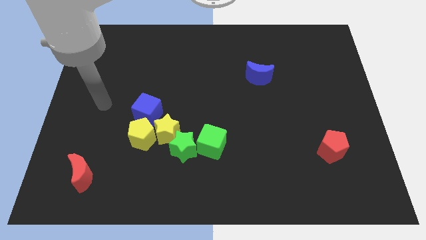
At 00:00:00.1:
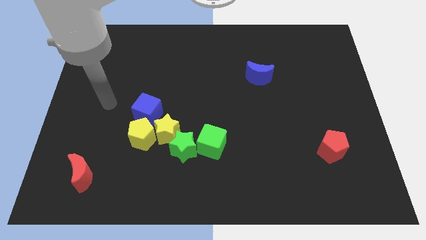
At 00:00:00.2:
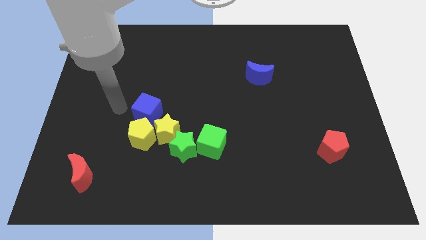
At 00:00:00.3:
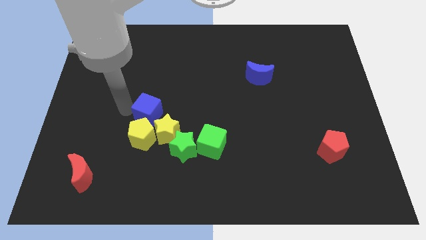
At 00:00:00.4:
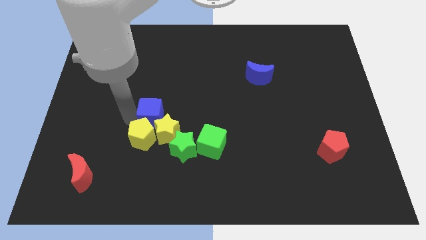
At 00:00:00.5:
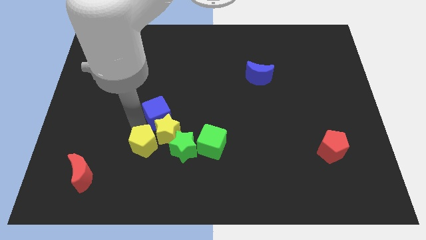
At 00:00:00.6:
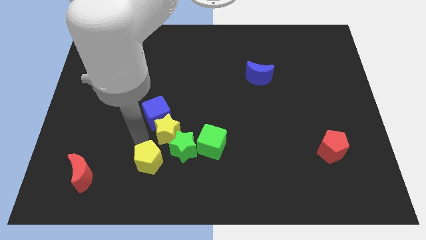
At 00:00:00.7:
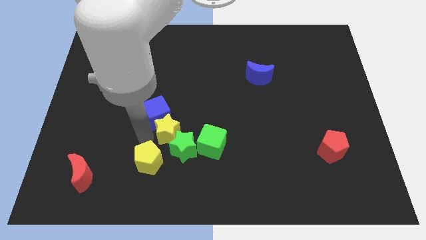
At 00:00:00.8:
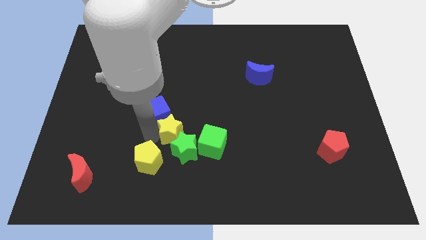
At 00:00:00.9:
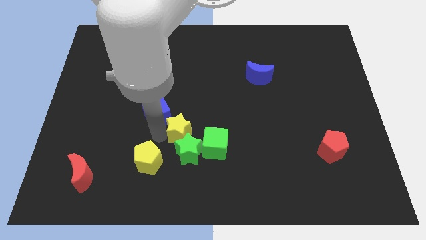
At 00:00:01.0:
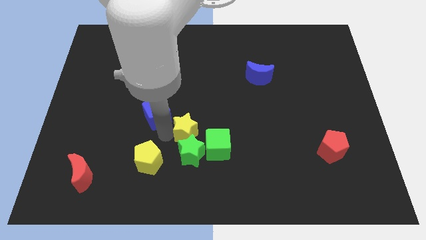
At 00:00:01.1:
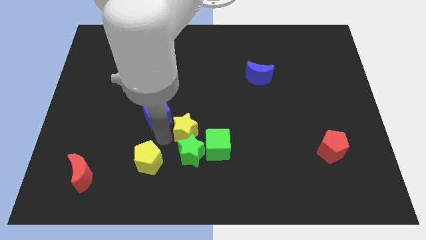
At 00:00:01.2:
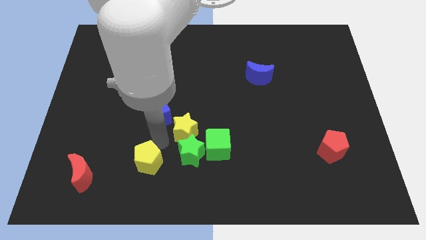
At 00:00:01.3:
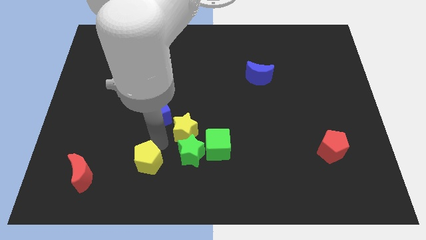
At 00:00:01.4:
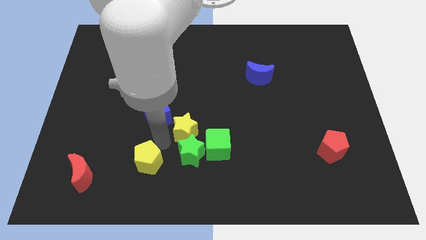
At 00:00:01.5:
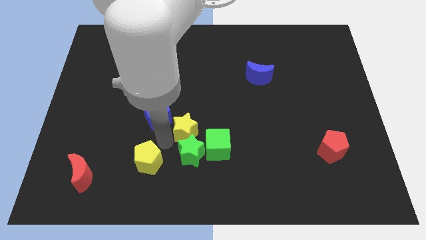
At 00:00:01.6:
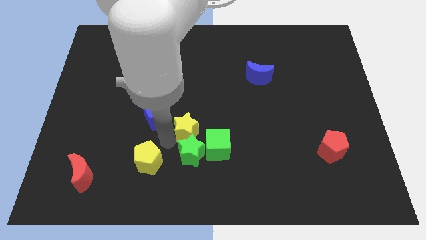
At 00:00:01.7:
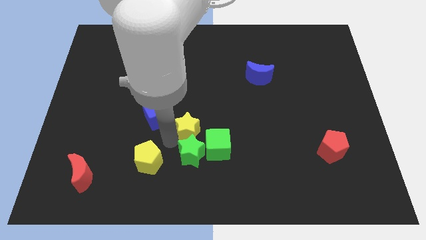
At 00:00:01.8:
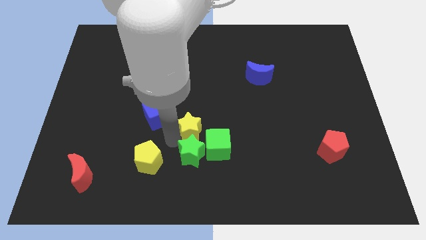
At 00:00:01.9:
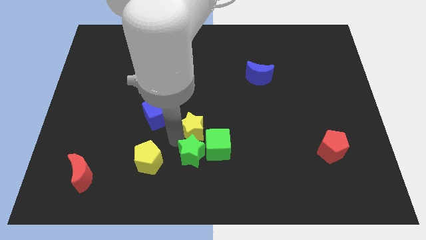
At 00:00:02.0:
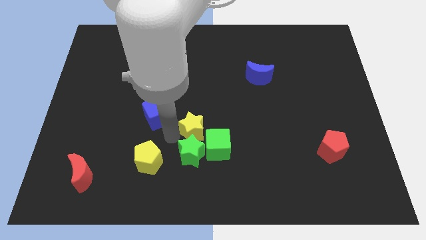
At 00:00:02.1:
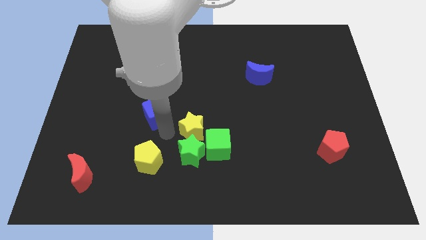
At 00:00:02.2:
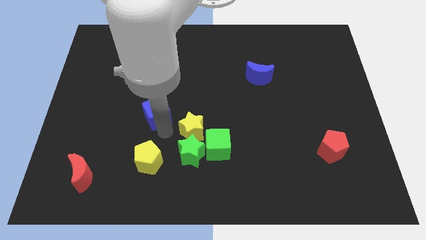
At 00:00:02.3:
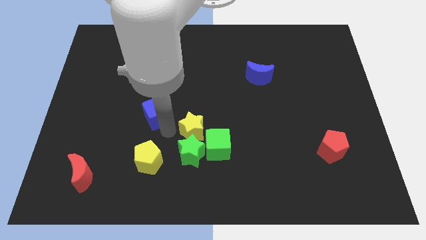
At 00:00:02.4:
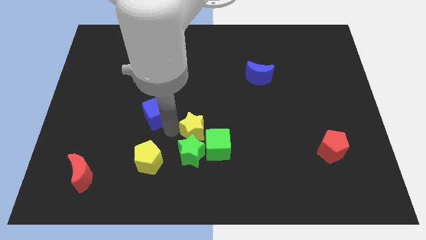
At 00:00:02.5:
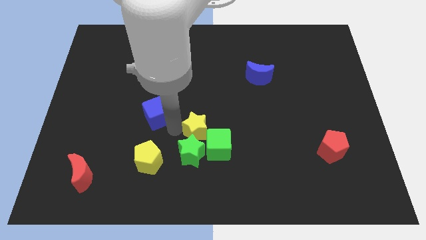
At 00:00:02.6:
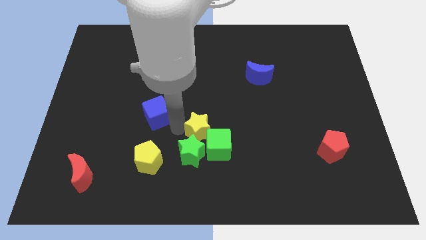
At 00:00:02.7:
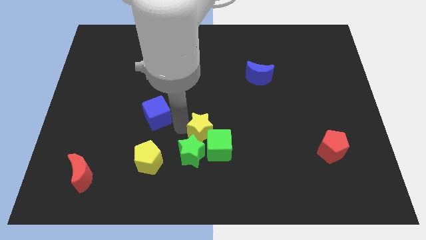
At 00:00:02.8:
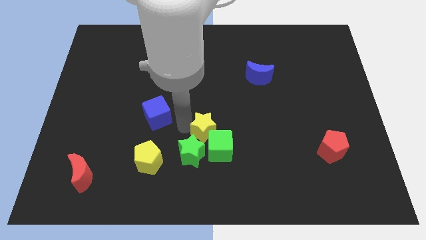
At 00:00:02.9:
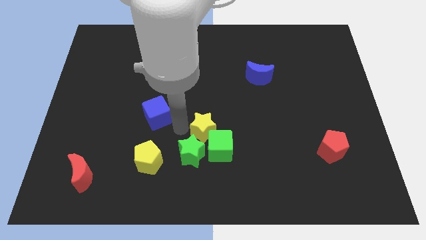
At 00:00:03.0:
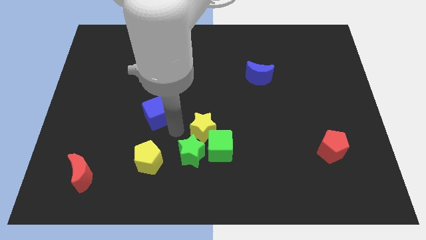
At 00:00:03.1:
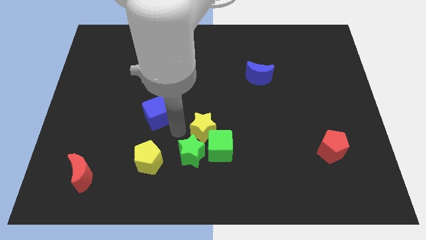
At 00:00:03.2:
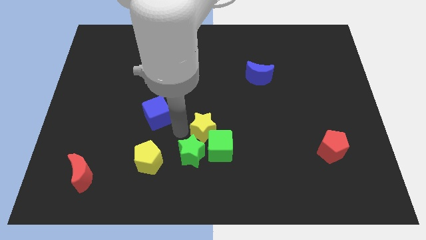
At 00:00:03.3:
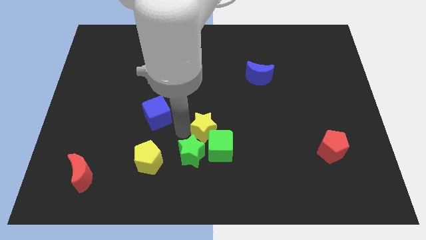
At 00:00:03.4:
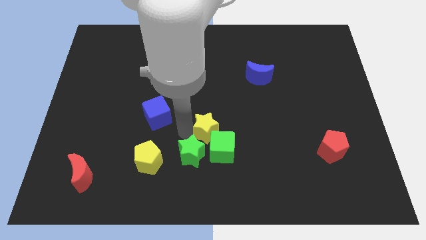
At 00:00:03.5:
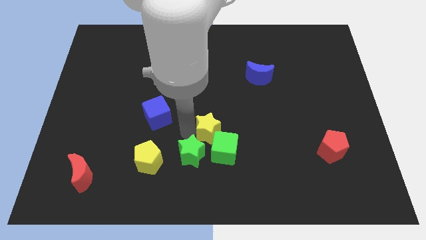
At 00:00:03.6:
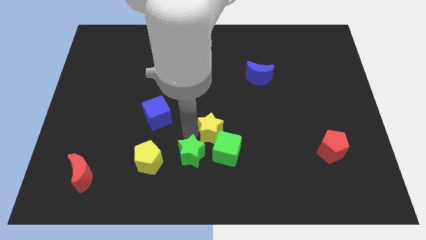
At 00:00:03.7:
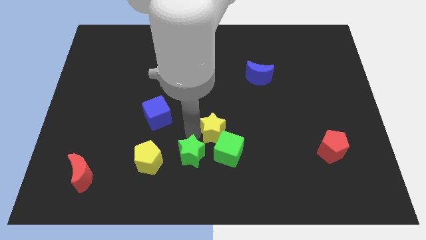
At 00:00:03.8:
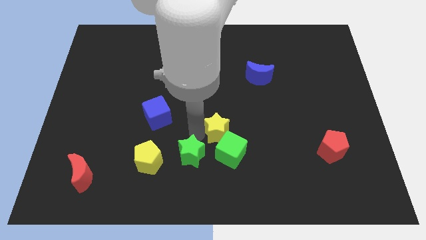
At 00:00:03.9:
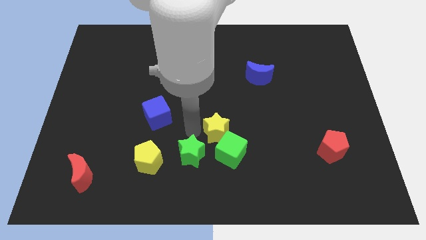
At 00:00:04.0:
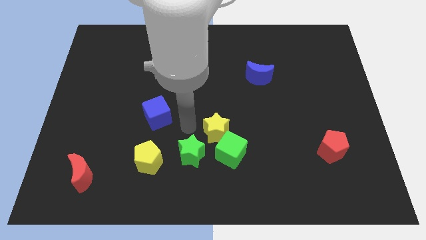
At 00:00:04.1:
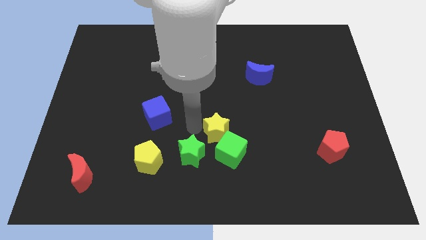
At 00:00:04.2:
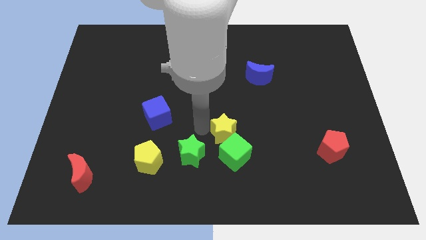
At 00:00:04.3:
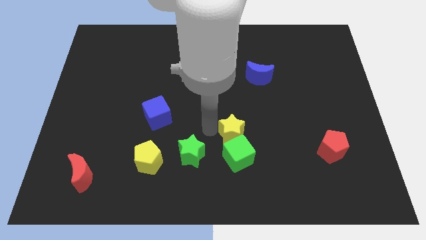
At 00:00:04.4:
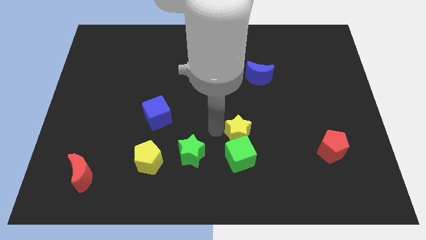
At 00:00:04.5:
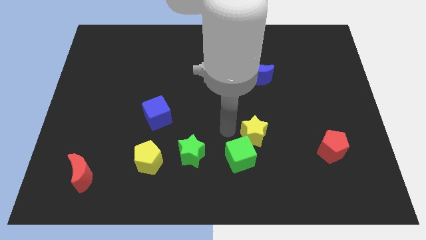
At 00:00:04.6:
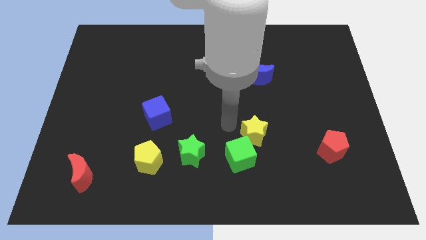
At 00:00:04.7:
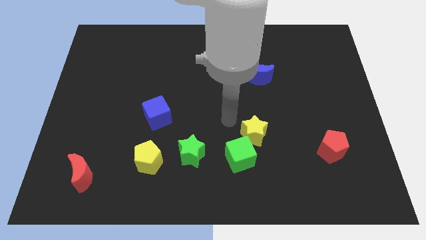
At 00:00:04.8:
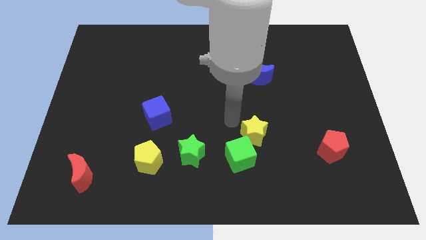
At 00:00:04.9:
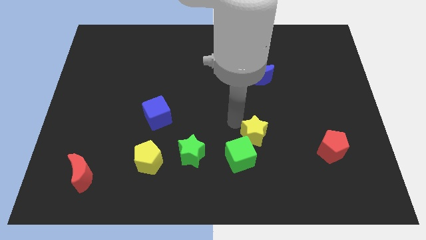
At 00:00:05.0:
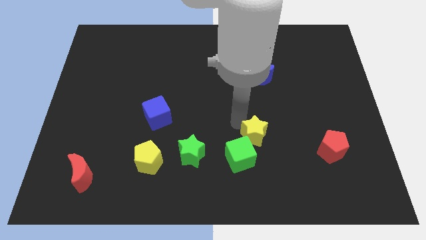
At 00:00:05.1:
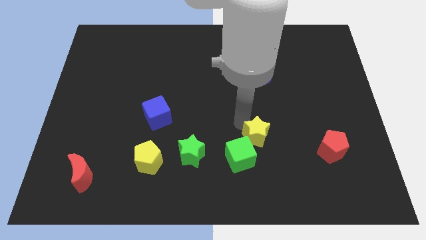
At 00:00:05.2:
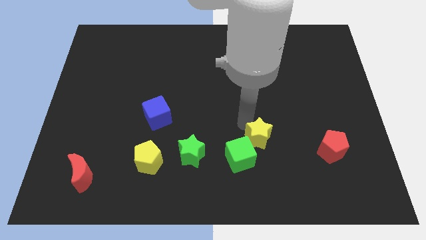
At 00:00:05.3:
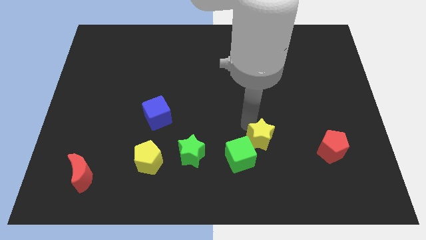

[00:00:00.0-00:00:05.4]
move the yellow star to the left side of the red pentagon
